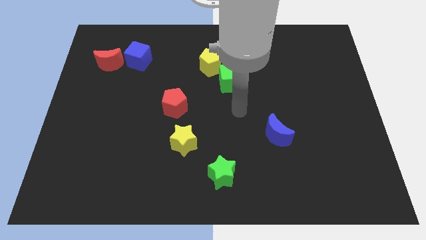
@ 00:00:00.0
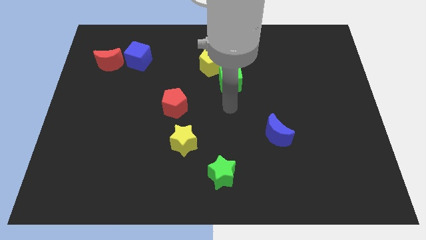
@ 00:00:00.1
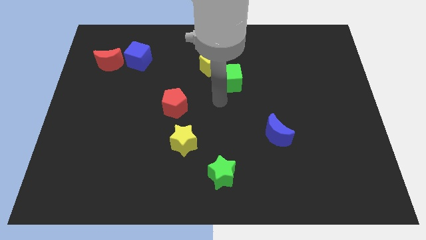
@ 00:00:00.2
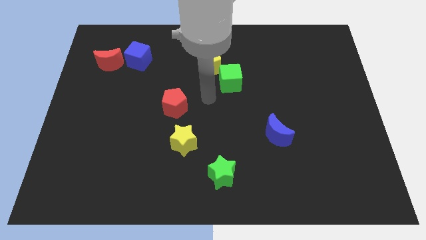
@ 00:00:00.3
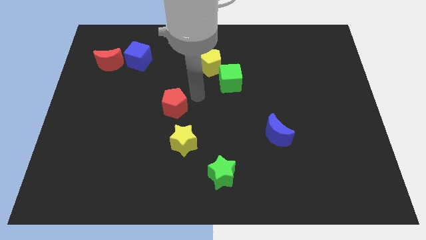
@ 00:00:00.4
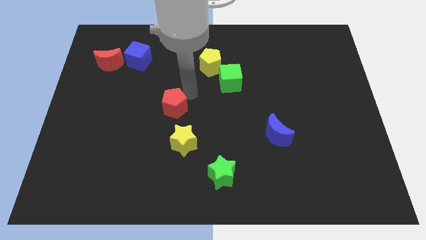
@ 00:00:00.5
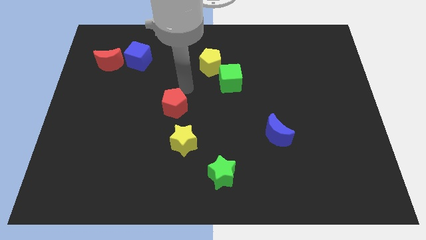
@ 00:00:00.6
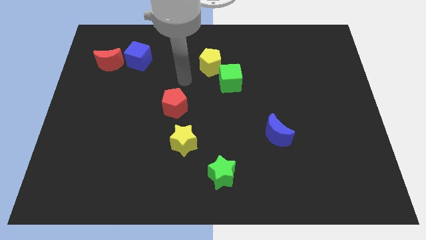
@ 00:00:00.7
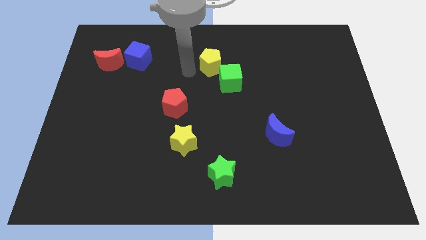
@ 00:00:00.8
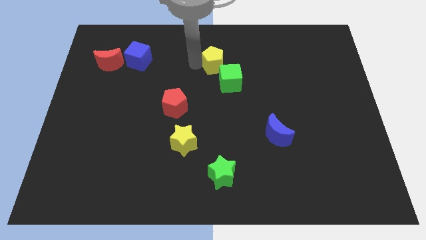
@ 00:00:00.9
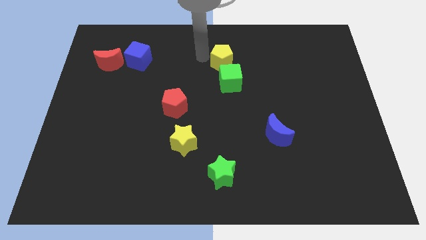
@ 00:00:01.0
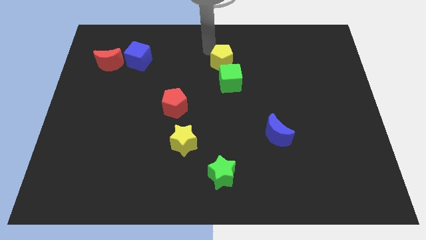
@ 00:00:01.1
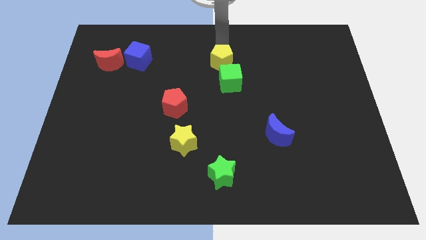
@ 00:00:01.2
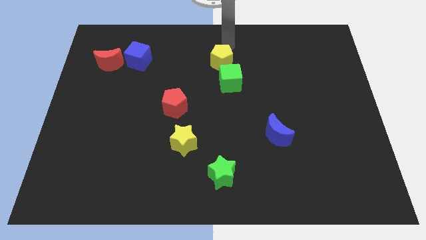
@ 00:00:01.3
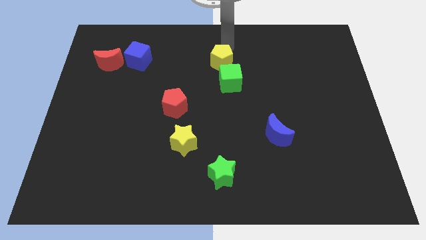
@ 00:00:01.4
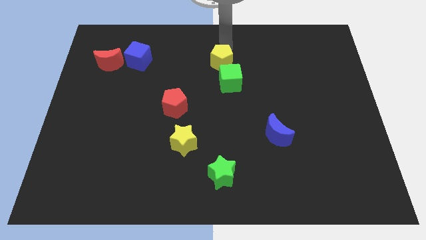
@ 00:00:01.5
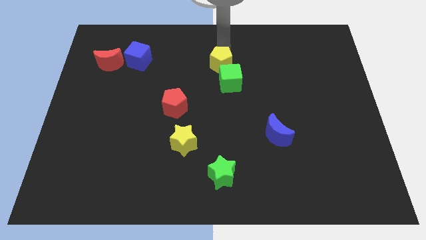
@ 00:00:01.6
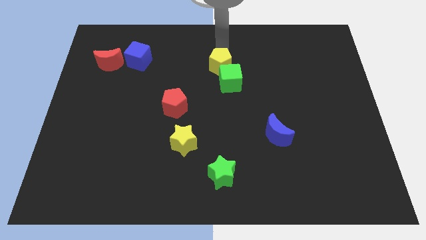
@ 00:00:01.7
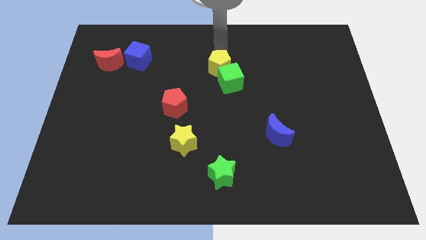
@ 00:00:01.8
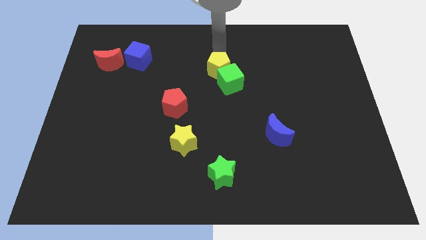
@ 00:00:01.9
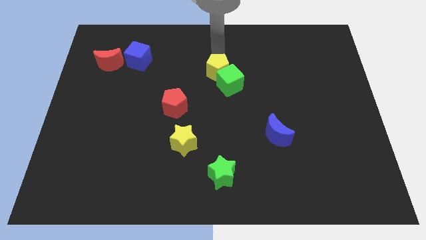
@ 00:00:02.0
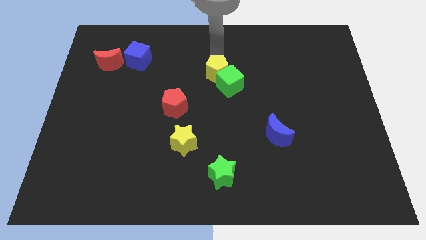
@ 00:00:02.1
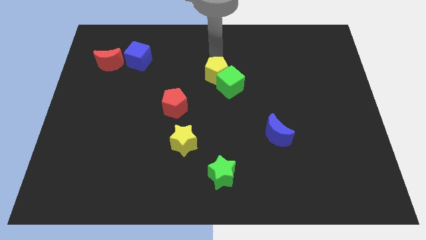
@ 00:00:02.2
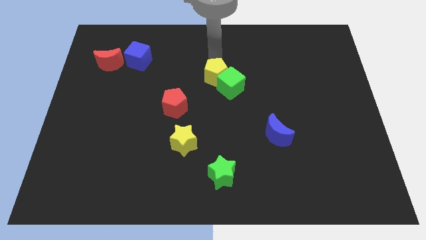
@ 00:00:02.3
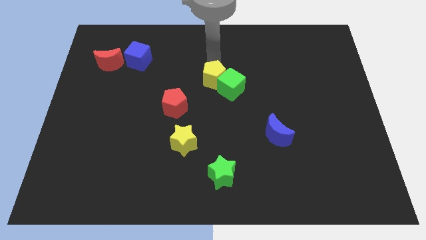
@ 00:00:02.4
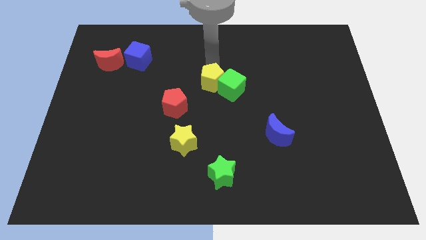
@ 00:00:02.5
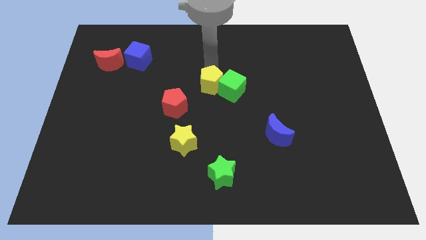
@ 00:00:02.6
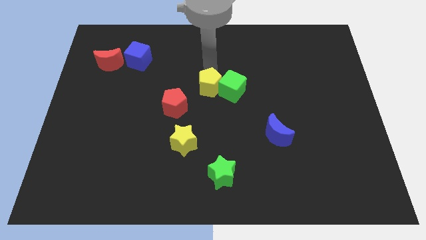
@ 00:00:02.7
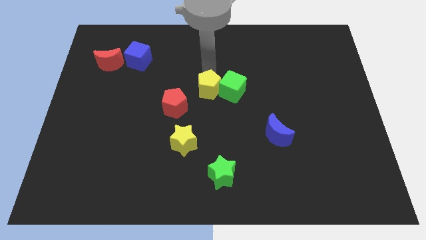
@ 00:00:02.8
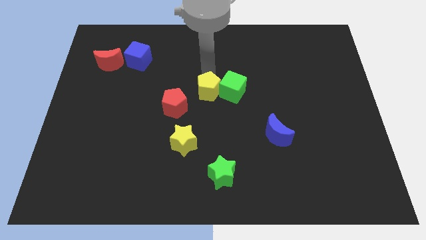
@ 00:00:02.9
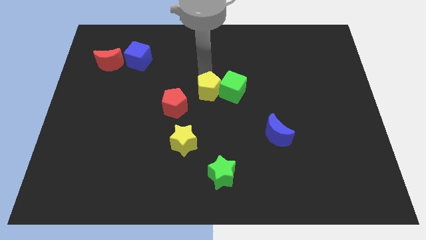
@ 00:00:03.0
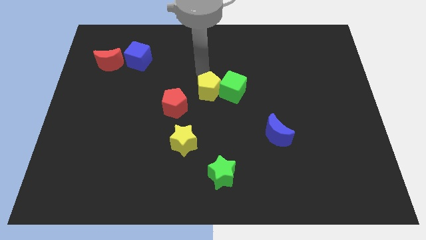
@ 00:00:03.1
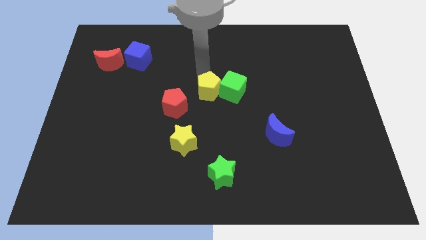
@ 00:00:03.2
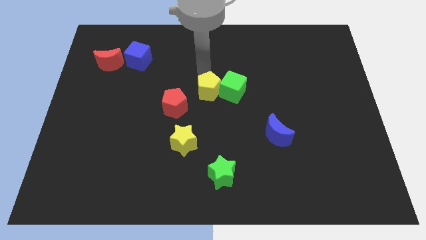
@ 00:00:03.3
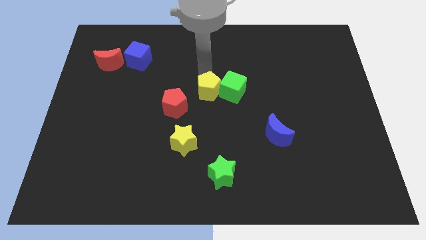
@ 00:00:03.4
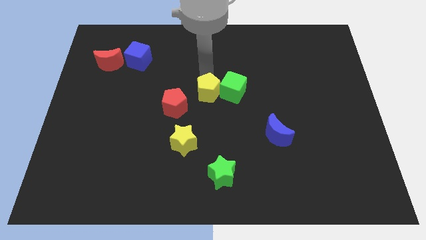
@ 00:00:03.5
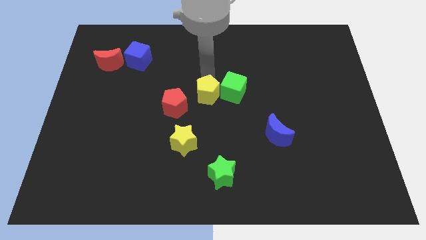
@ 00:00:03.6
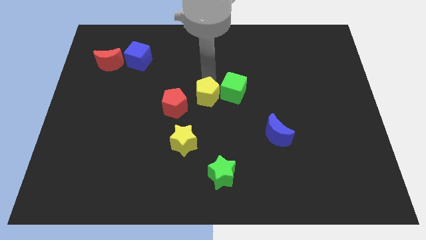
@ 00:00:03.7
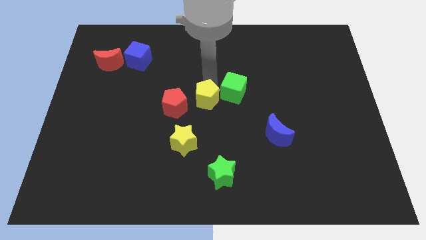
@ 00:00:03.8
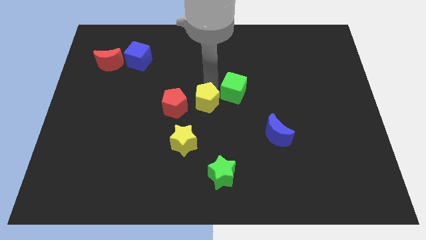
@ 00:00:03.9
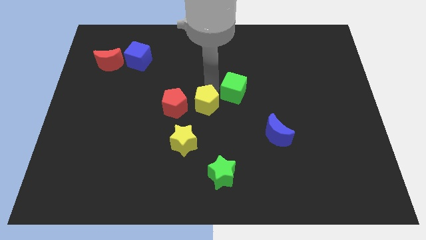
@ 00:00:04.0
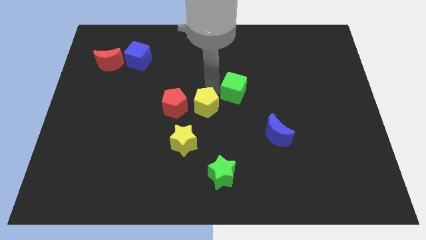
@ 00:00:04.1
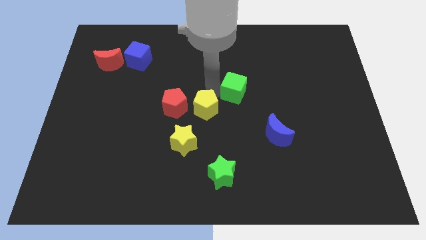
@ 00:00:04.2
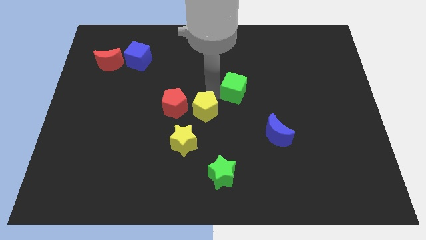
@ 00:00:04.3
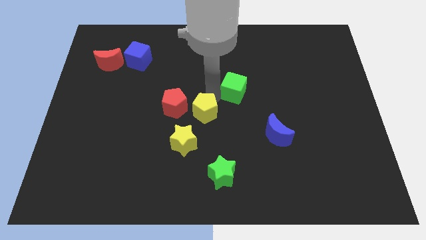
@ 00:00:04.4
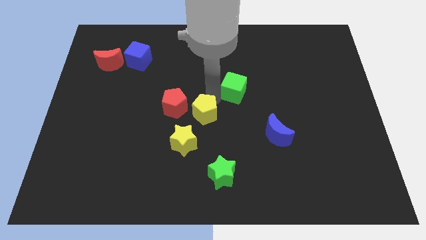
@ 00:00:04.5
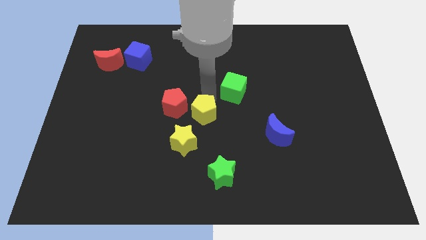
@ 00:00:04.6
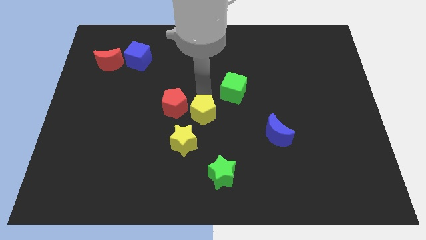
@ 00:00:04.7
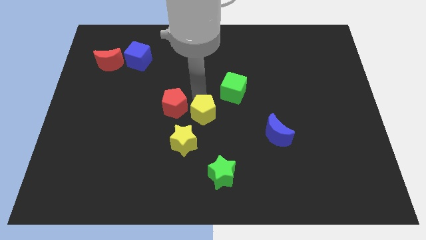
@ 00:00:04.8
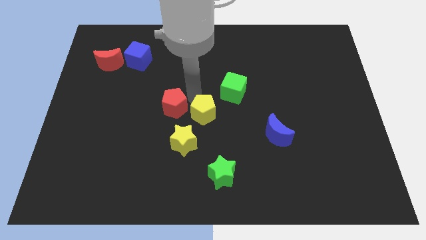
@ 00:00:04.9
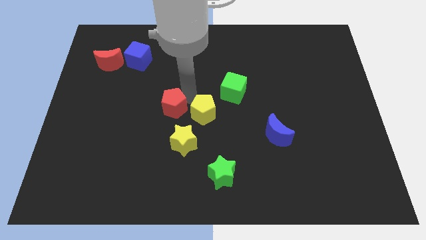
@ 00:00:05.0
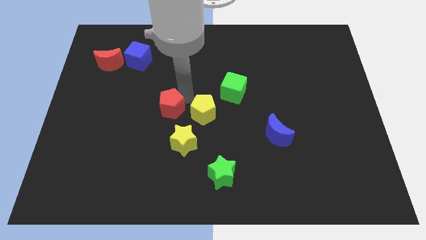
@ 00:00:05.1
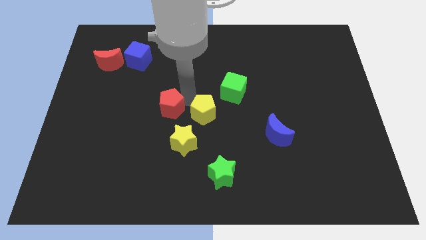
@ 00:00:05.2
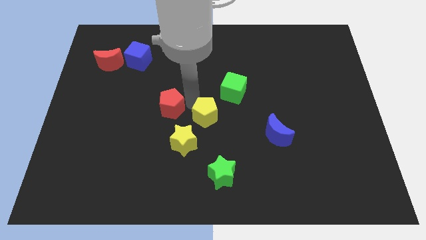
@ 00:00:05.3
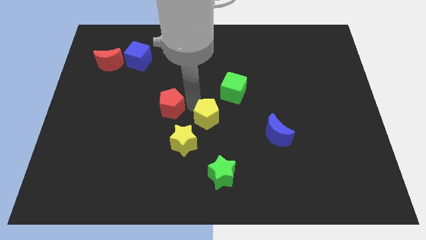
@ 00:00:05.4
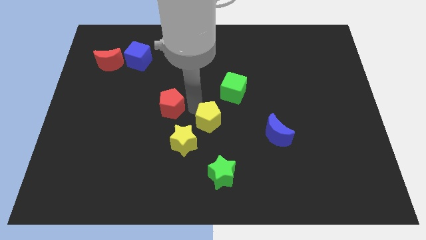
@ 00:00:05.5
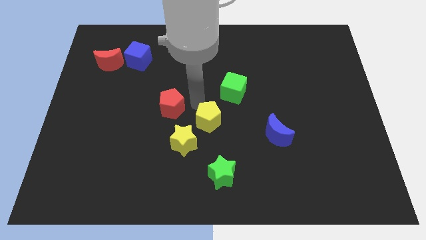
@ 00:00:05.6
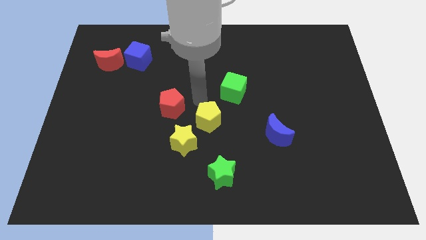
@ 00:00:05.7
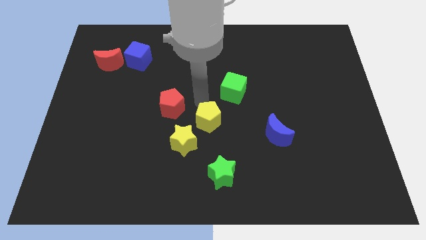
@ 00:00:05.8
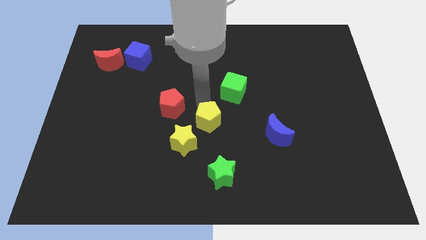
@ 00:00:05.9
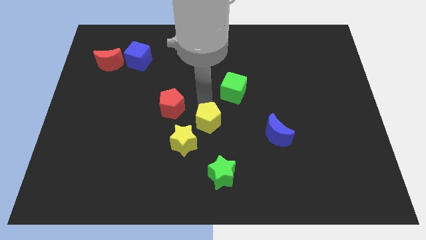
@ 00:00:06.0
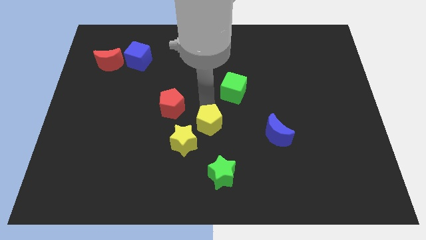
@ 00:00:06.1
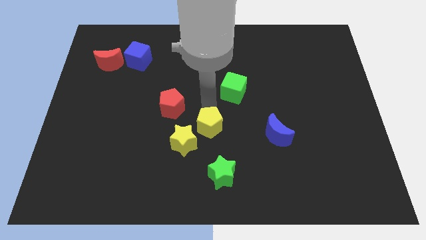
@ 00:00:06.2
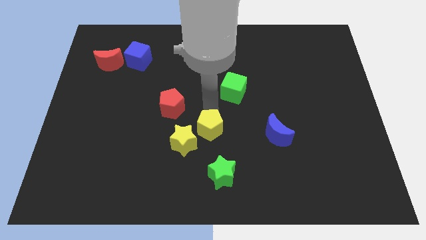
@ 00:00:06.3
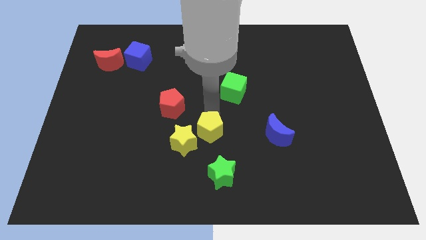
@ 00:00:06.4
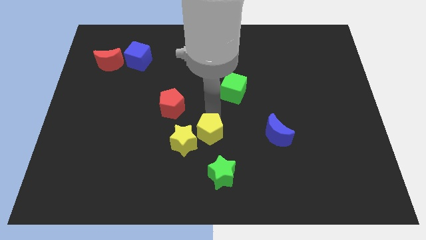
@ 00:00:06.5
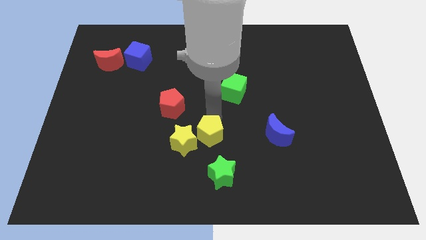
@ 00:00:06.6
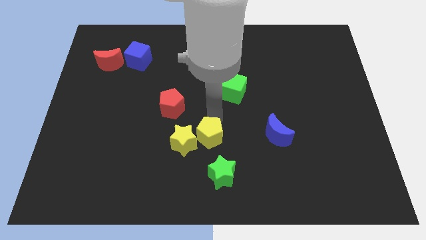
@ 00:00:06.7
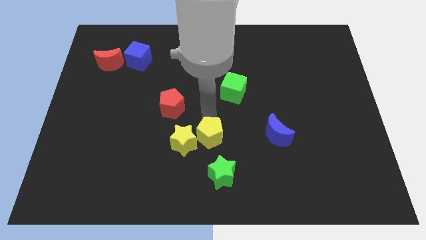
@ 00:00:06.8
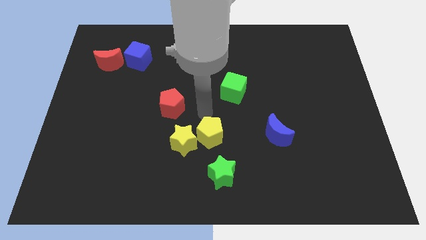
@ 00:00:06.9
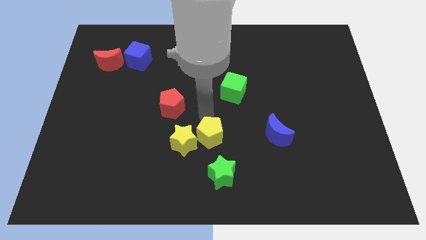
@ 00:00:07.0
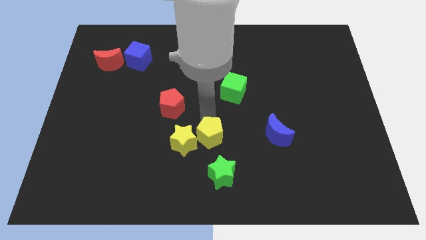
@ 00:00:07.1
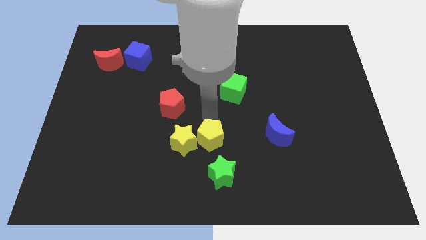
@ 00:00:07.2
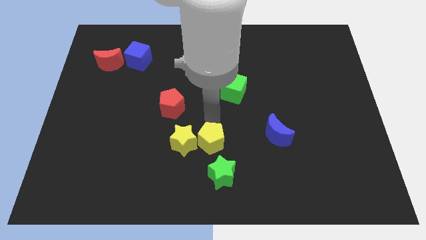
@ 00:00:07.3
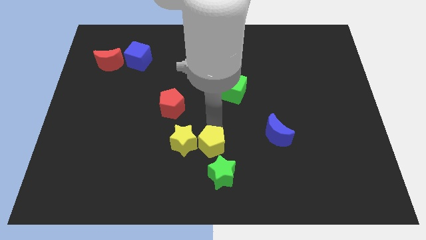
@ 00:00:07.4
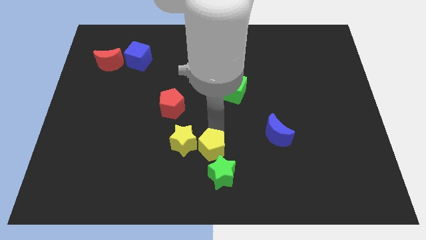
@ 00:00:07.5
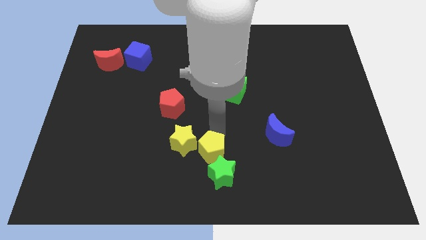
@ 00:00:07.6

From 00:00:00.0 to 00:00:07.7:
move the yellow pentagon close to the green star

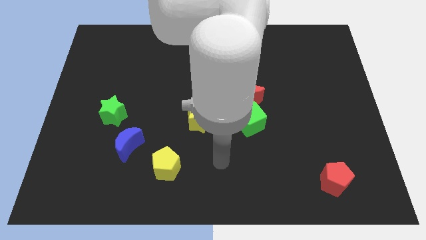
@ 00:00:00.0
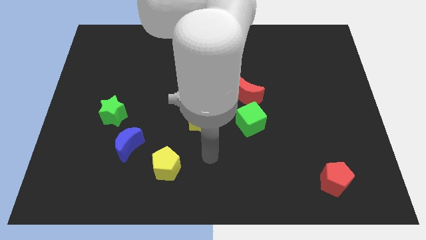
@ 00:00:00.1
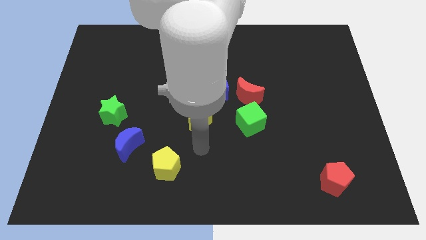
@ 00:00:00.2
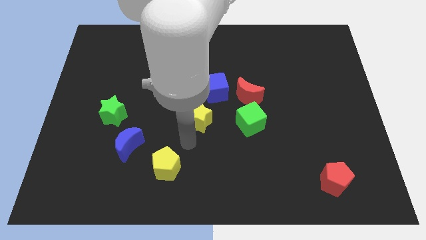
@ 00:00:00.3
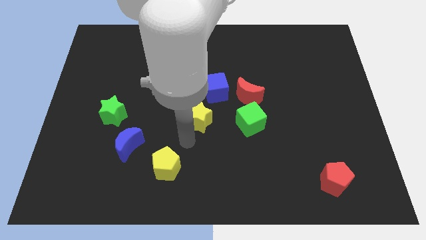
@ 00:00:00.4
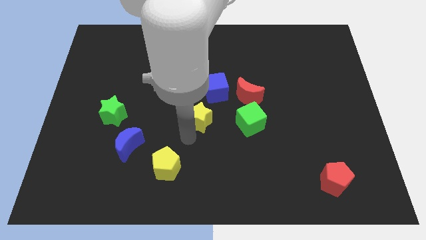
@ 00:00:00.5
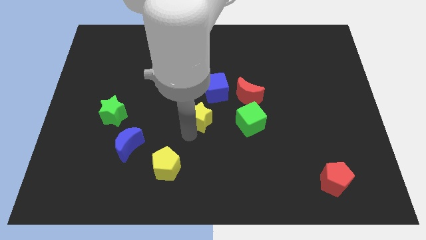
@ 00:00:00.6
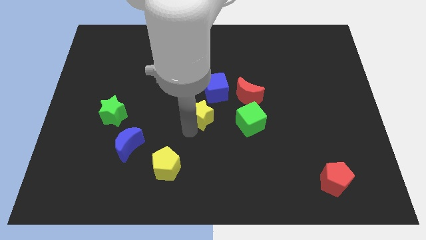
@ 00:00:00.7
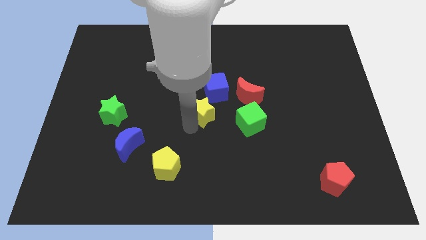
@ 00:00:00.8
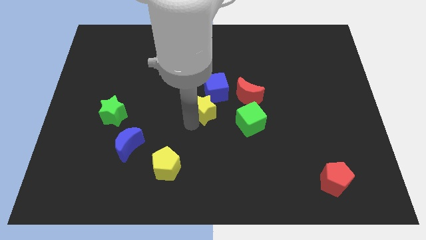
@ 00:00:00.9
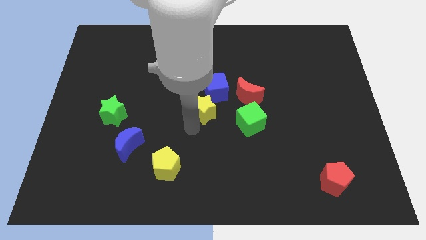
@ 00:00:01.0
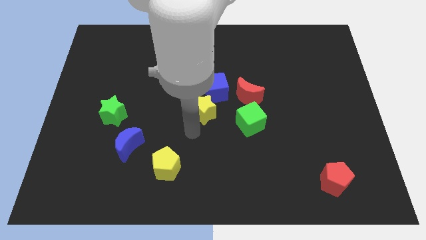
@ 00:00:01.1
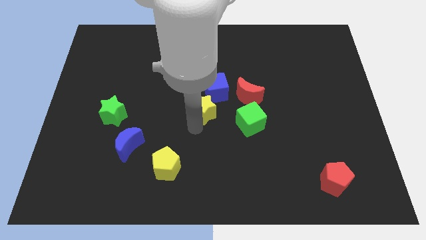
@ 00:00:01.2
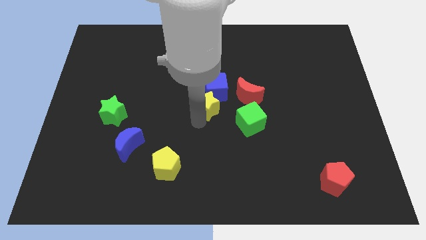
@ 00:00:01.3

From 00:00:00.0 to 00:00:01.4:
push the yellow star to the blue cube
